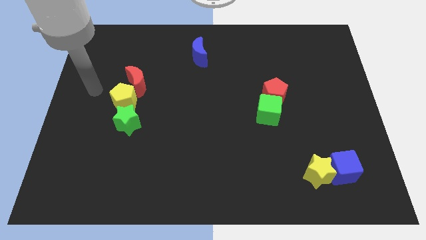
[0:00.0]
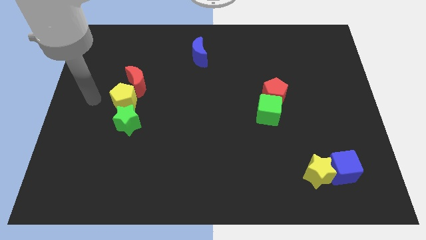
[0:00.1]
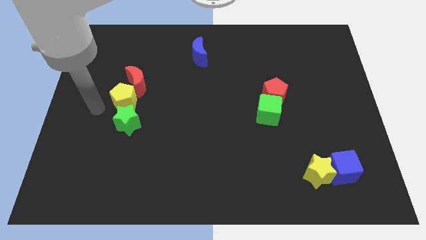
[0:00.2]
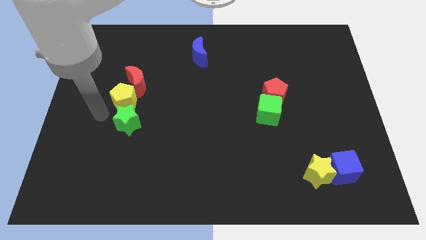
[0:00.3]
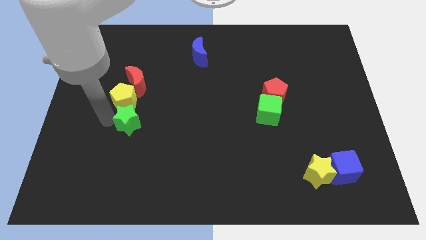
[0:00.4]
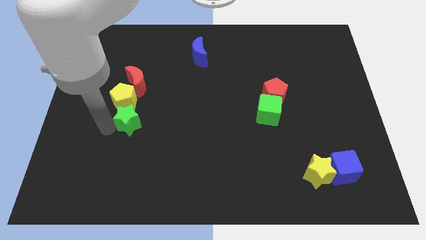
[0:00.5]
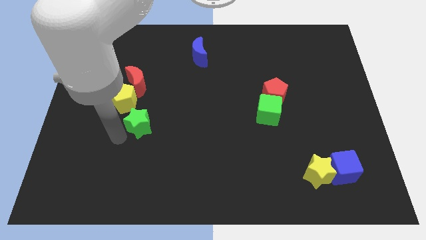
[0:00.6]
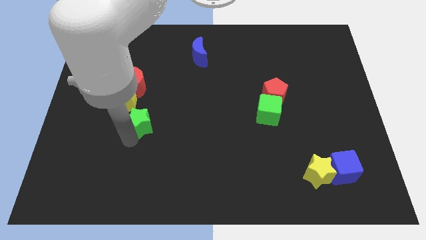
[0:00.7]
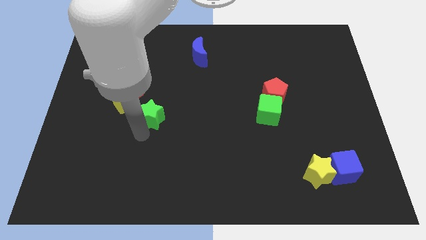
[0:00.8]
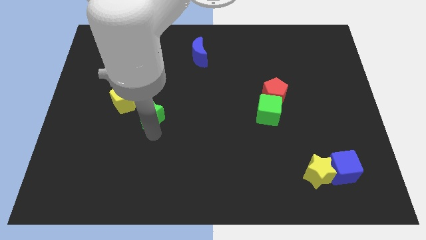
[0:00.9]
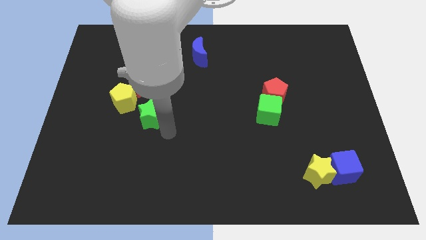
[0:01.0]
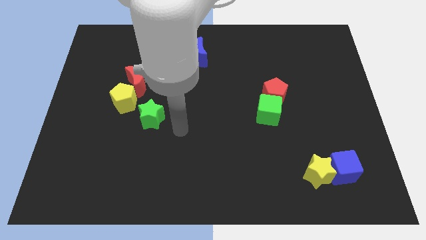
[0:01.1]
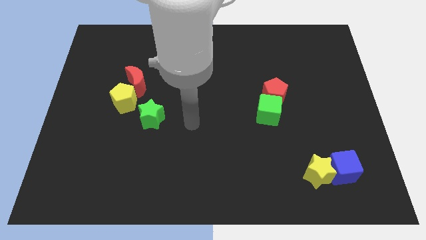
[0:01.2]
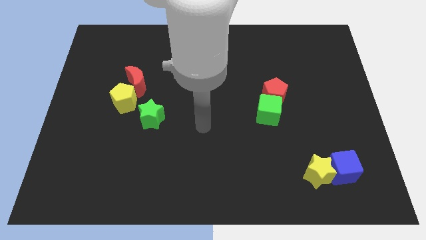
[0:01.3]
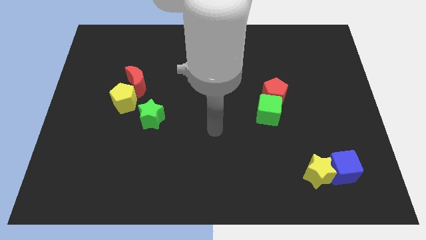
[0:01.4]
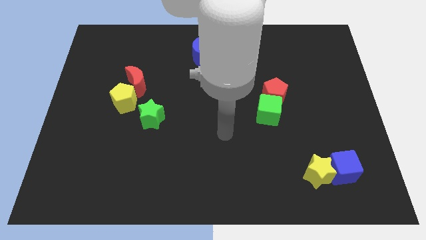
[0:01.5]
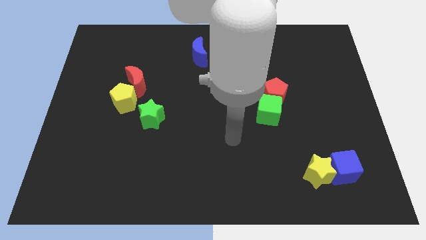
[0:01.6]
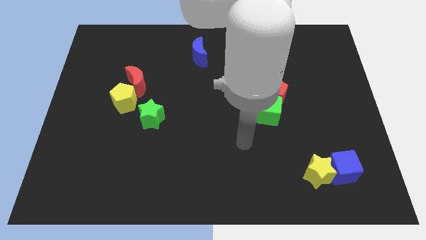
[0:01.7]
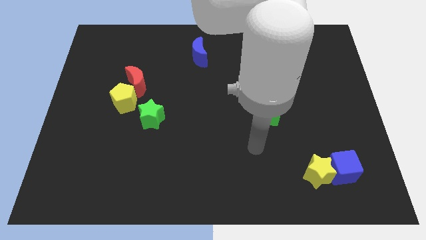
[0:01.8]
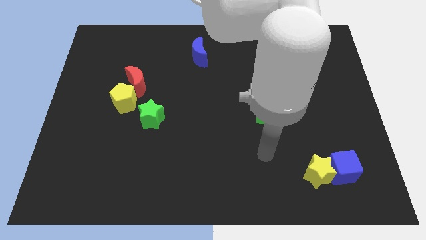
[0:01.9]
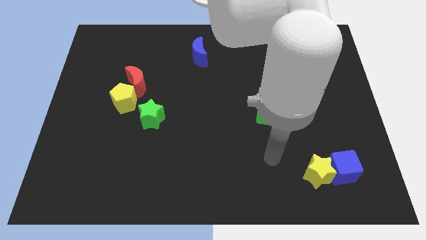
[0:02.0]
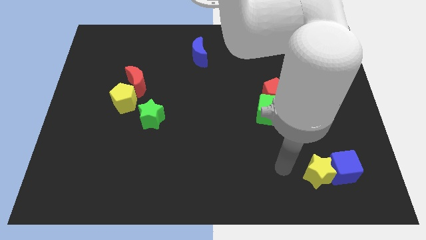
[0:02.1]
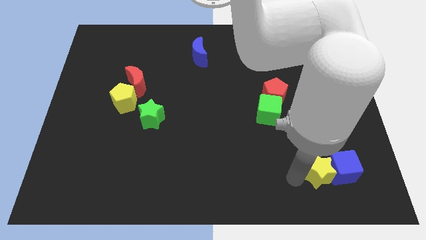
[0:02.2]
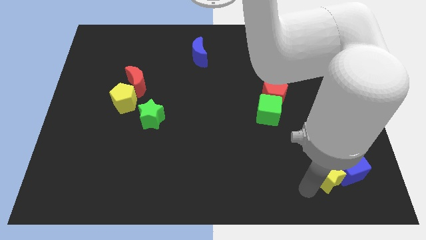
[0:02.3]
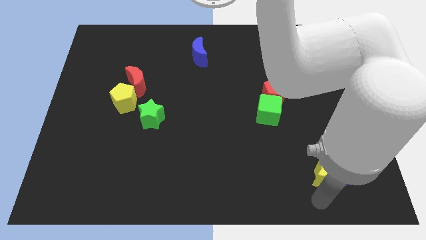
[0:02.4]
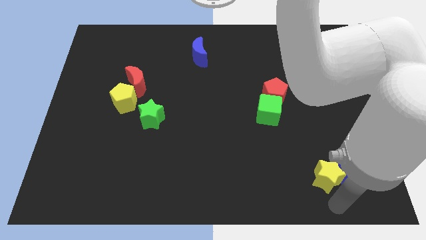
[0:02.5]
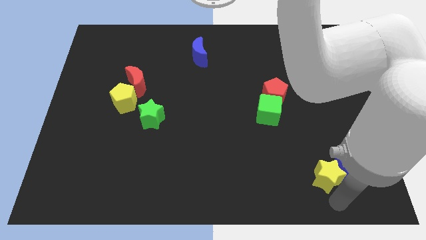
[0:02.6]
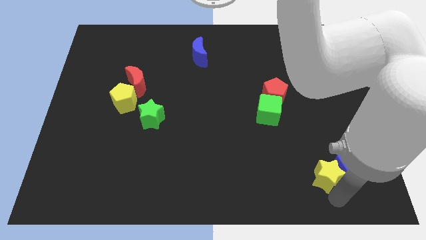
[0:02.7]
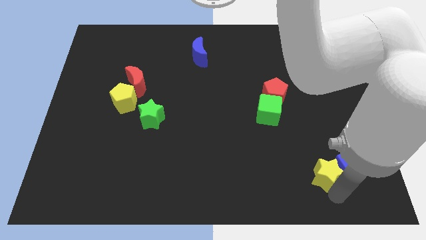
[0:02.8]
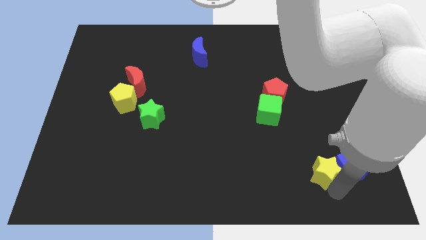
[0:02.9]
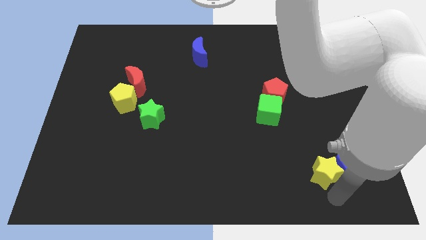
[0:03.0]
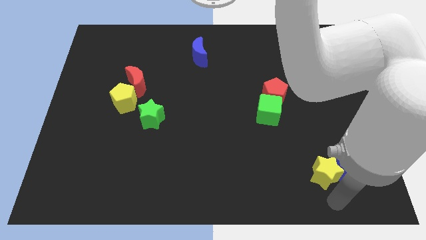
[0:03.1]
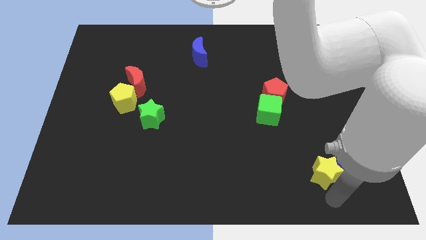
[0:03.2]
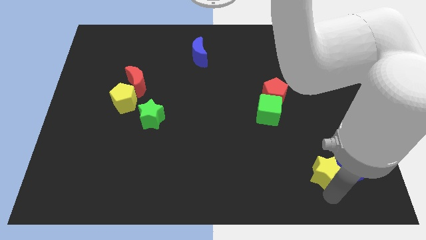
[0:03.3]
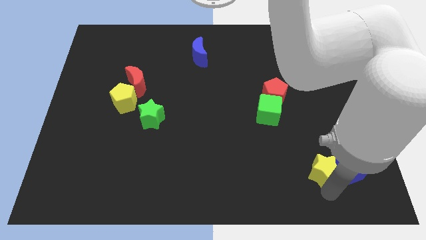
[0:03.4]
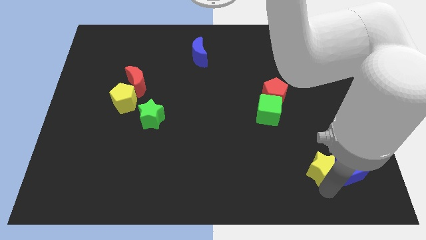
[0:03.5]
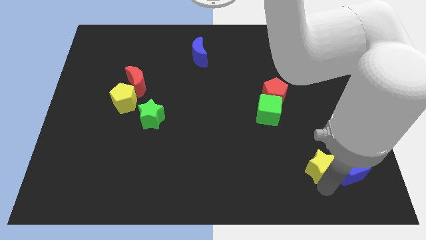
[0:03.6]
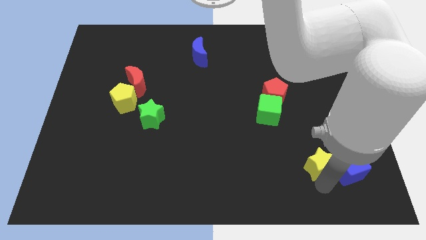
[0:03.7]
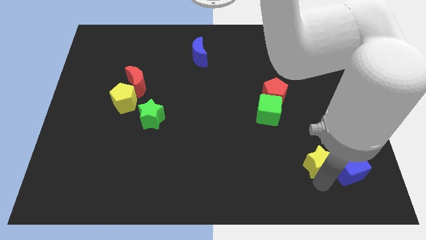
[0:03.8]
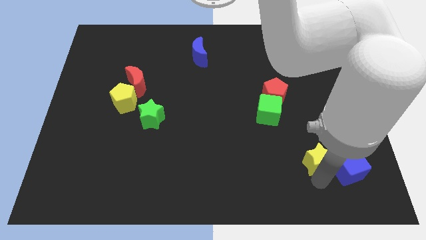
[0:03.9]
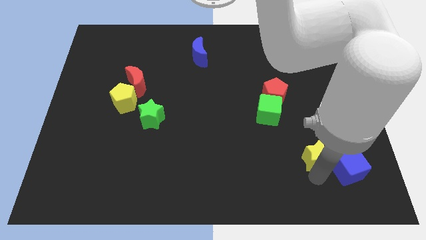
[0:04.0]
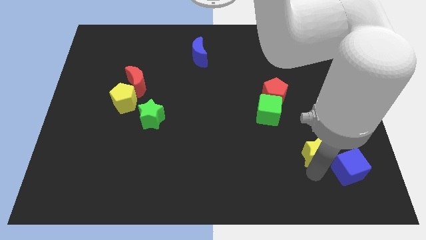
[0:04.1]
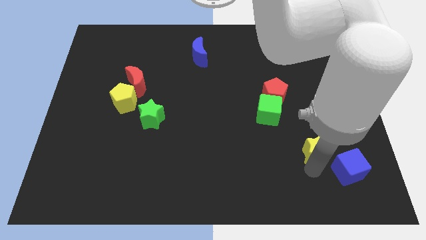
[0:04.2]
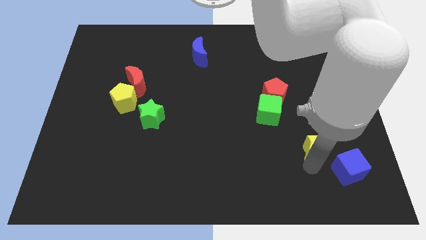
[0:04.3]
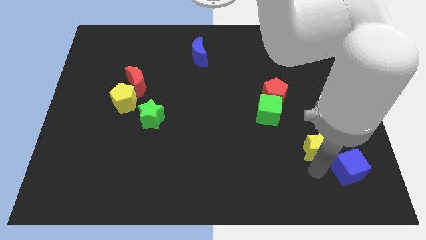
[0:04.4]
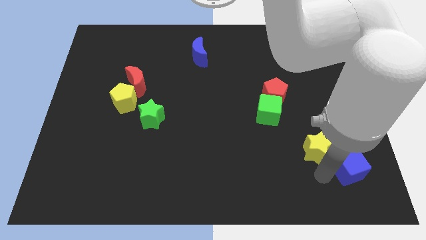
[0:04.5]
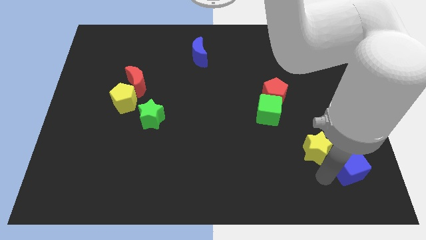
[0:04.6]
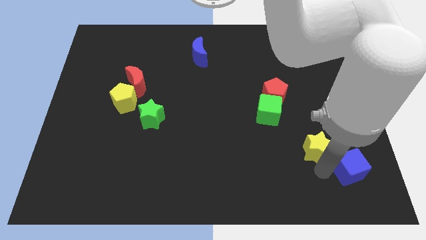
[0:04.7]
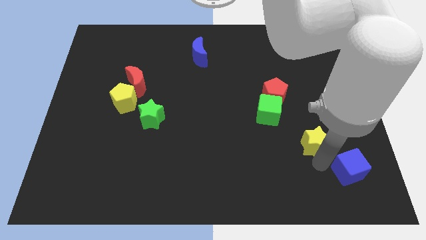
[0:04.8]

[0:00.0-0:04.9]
push the yellow star up a bit

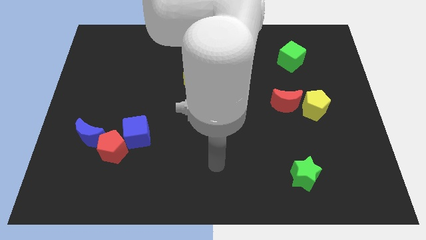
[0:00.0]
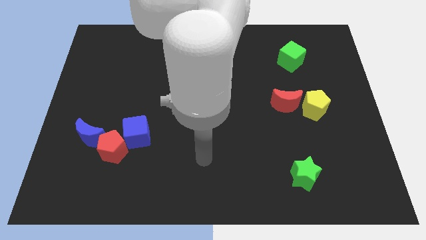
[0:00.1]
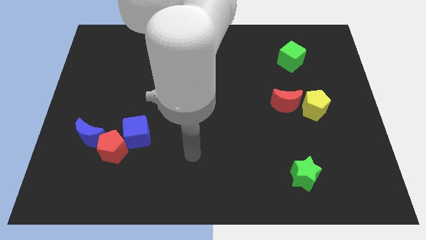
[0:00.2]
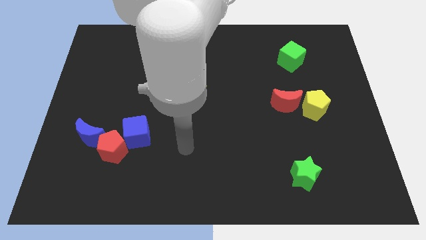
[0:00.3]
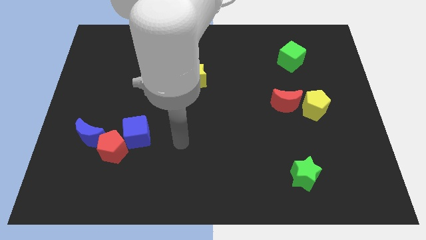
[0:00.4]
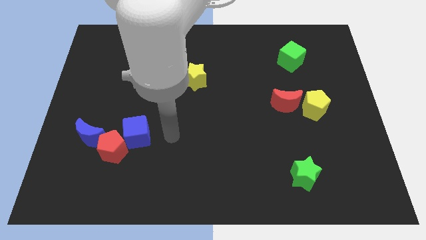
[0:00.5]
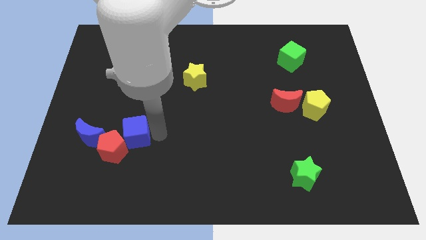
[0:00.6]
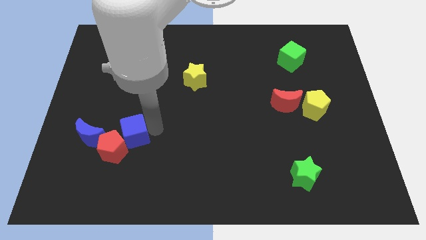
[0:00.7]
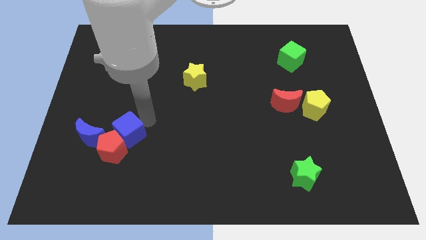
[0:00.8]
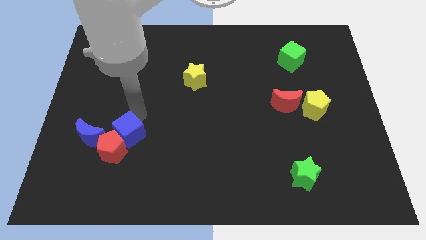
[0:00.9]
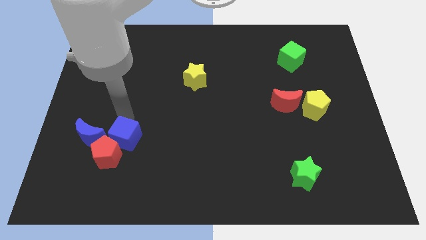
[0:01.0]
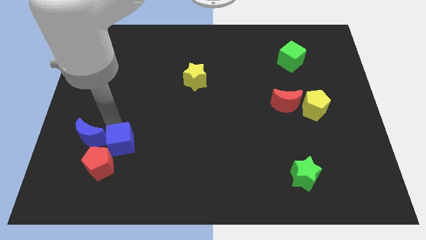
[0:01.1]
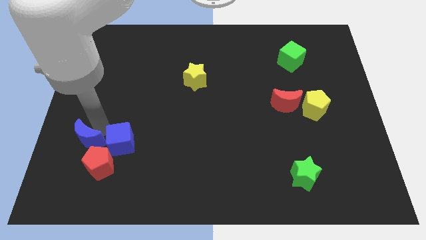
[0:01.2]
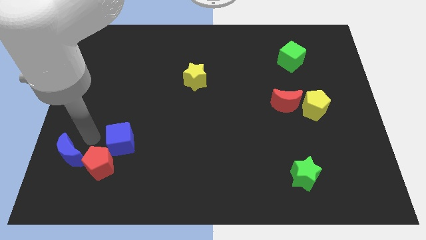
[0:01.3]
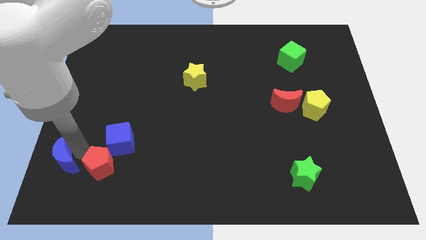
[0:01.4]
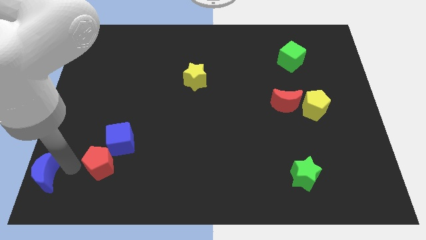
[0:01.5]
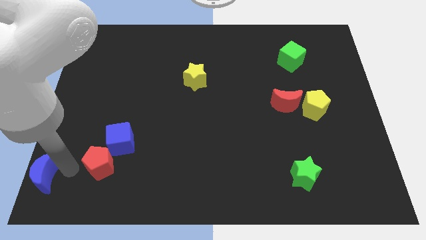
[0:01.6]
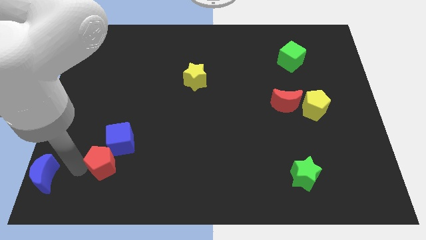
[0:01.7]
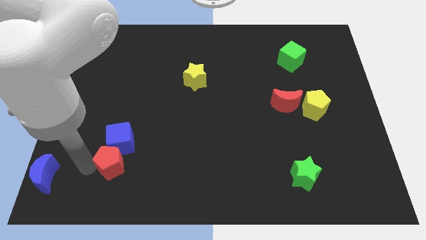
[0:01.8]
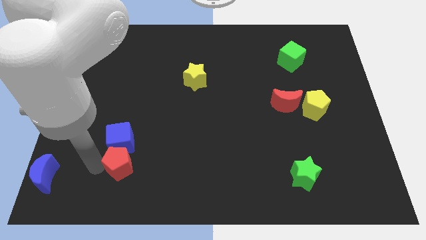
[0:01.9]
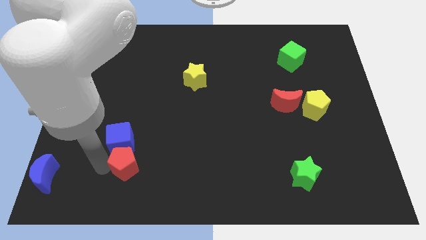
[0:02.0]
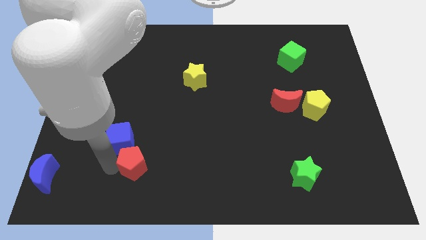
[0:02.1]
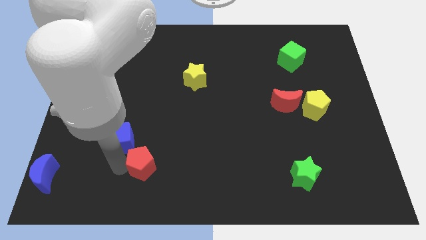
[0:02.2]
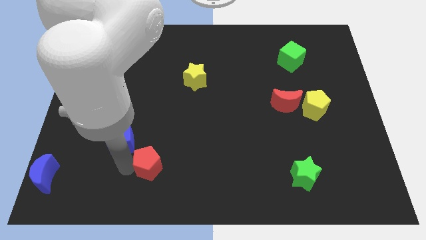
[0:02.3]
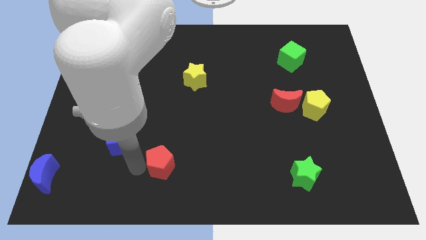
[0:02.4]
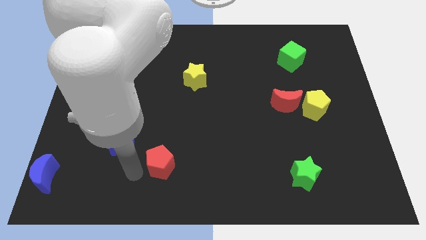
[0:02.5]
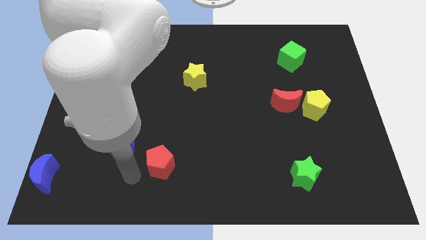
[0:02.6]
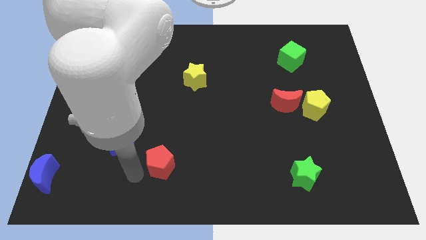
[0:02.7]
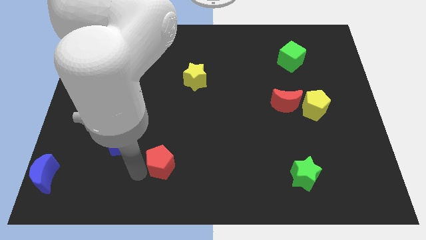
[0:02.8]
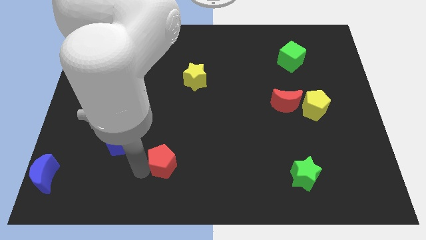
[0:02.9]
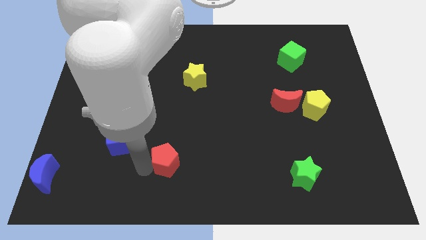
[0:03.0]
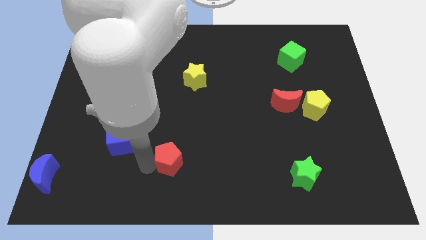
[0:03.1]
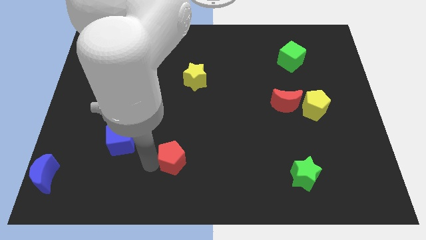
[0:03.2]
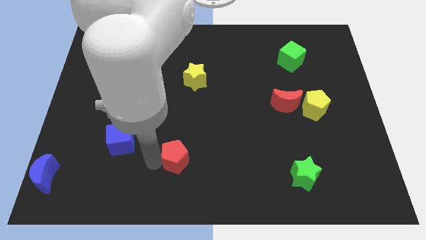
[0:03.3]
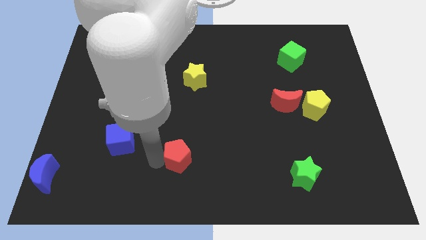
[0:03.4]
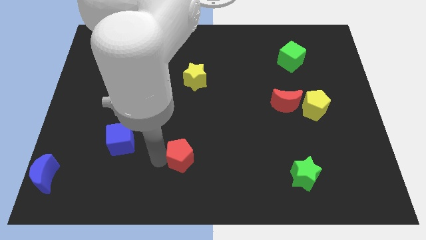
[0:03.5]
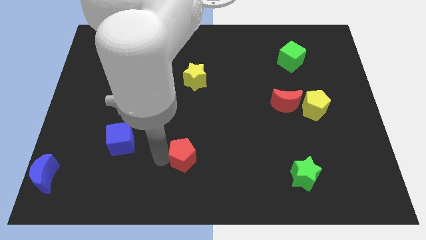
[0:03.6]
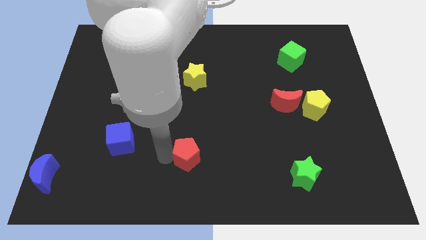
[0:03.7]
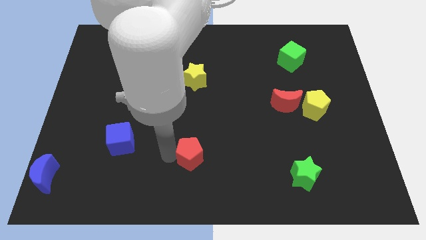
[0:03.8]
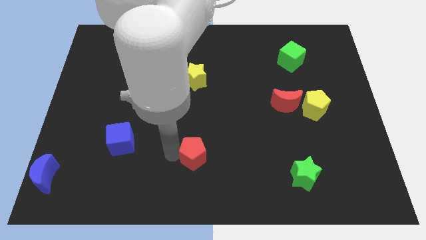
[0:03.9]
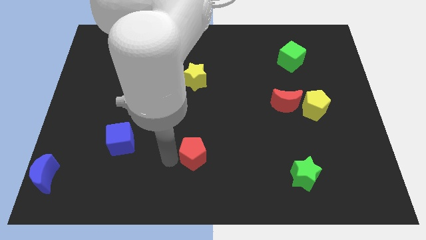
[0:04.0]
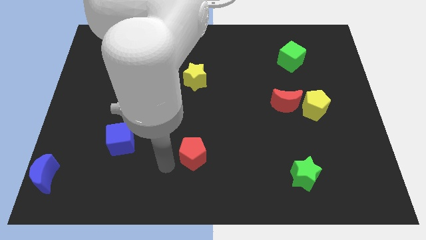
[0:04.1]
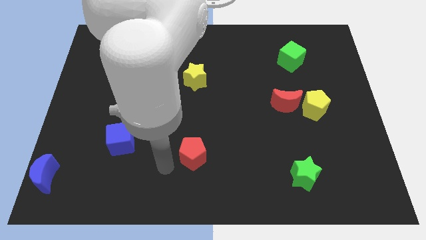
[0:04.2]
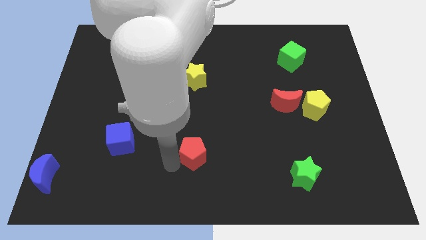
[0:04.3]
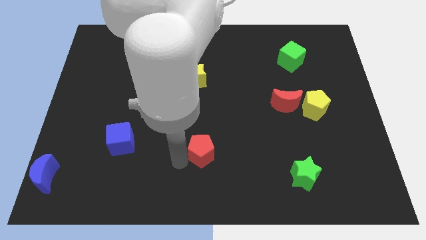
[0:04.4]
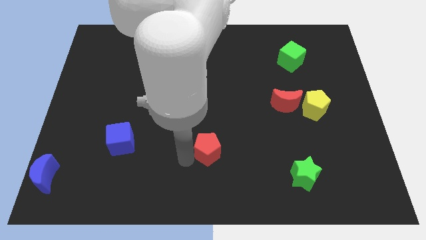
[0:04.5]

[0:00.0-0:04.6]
move the red pentagon right
